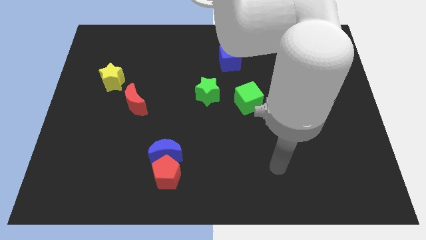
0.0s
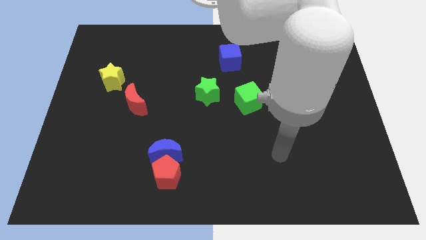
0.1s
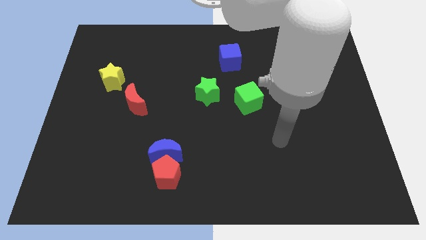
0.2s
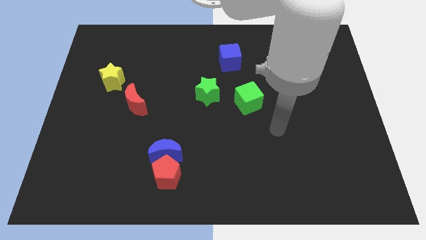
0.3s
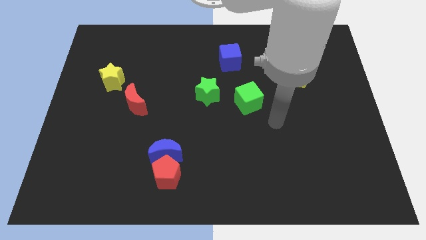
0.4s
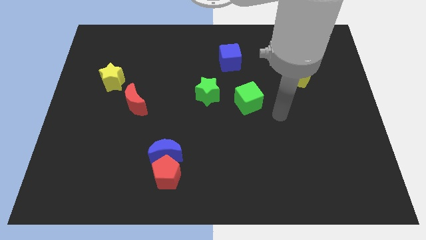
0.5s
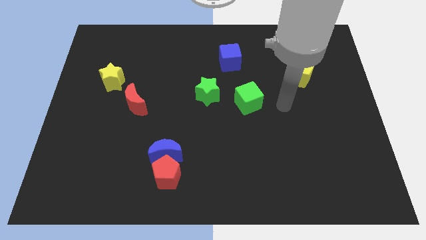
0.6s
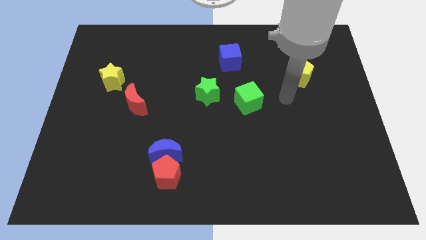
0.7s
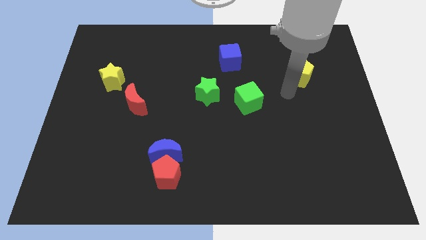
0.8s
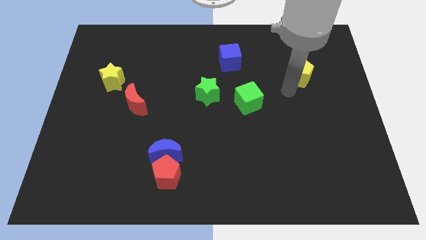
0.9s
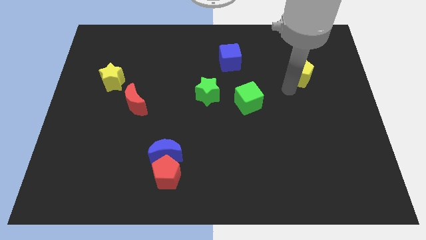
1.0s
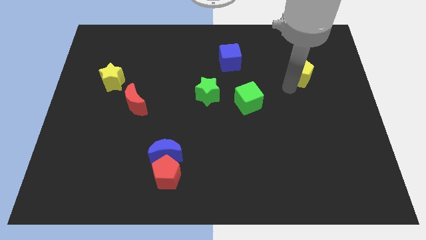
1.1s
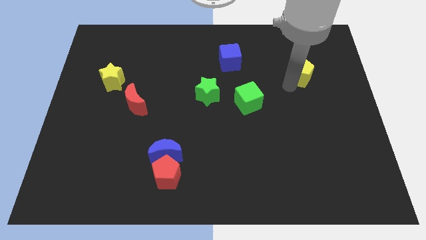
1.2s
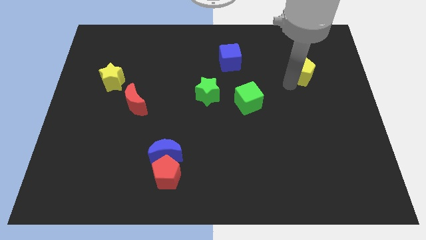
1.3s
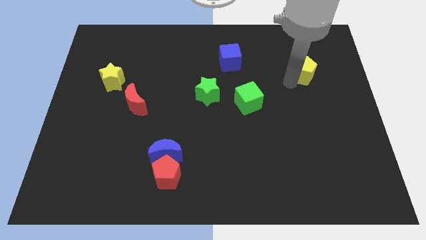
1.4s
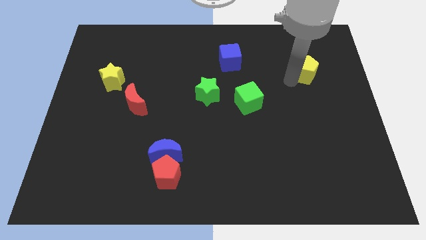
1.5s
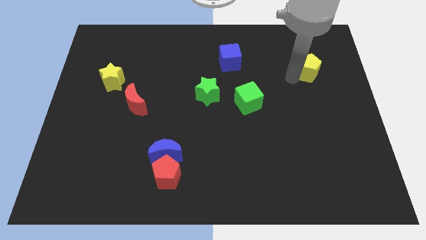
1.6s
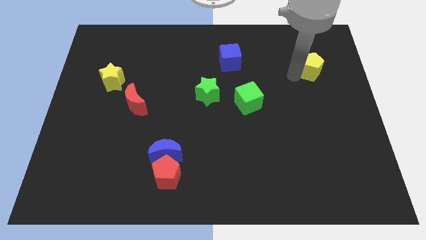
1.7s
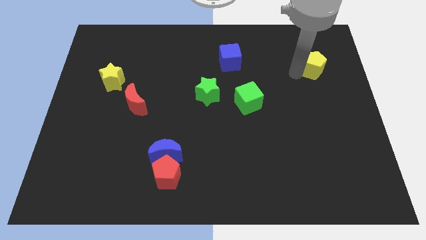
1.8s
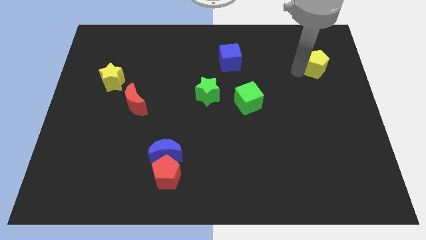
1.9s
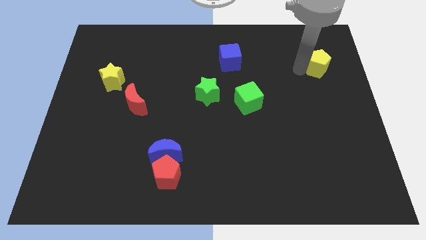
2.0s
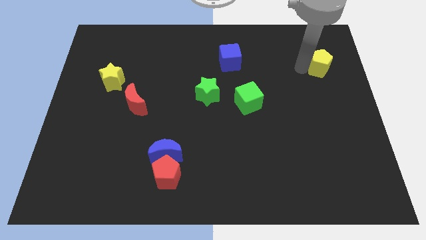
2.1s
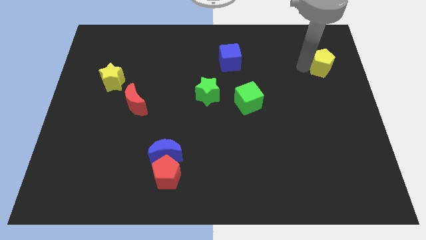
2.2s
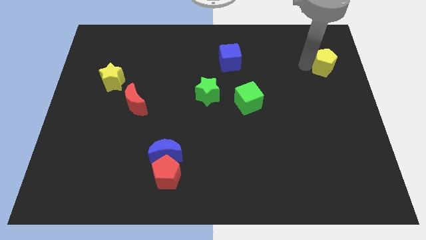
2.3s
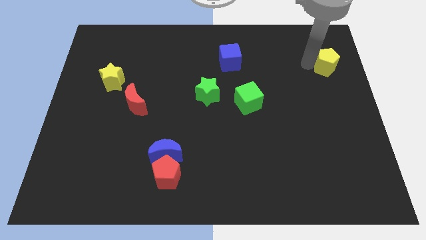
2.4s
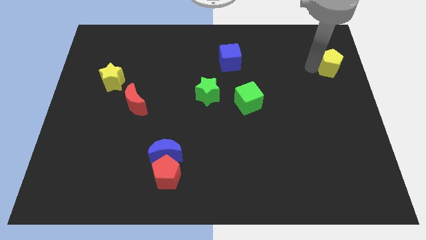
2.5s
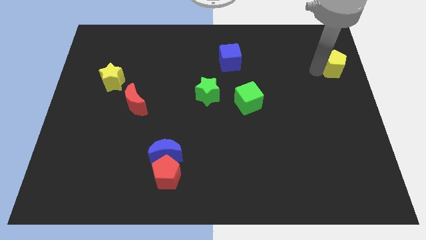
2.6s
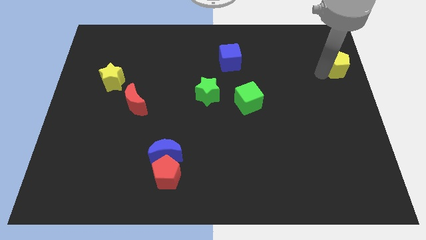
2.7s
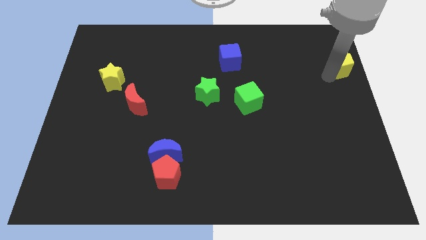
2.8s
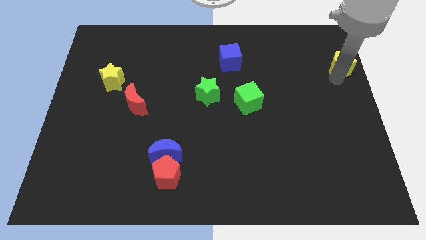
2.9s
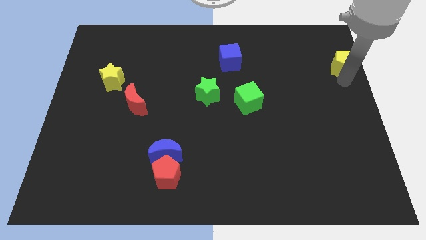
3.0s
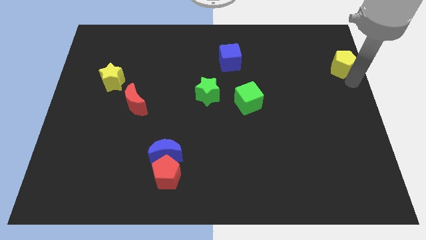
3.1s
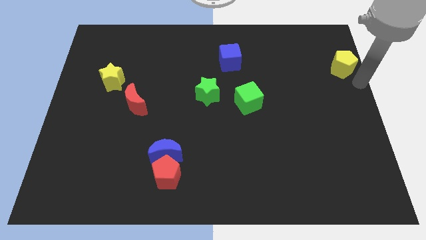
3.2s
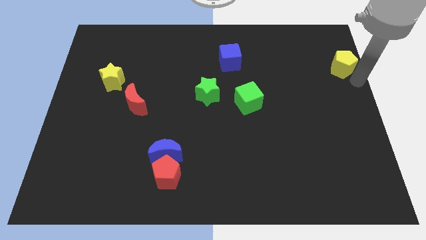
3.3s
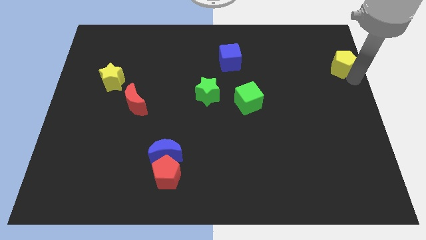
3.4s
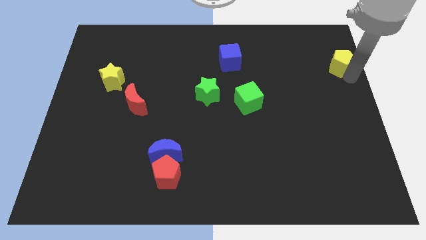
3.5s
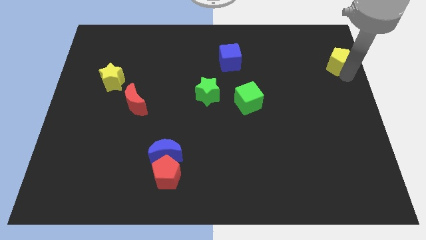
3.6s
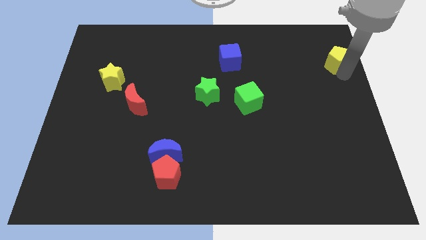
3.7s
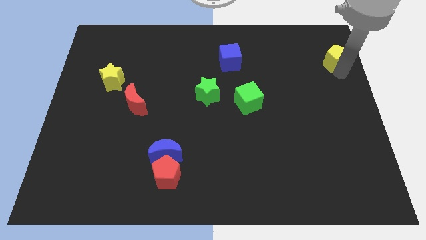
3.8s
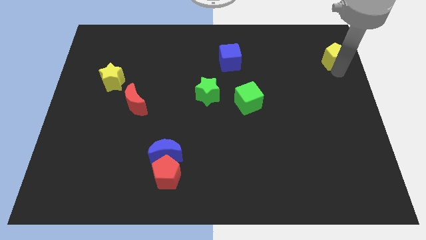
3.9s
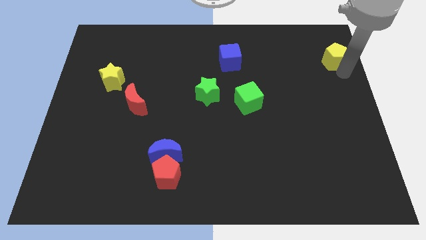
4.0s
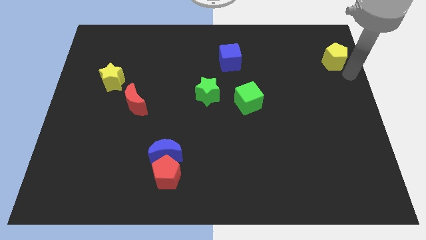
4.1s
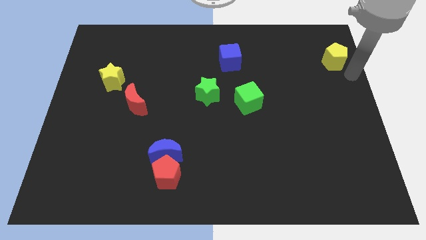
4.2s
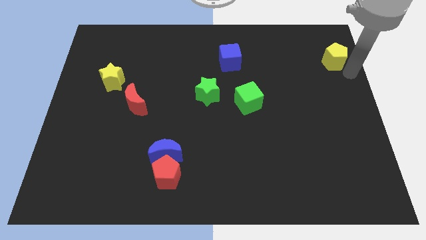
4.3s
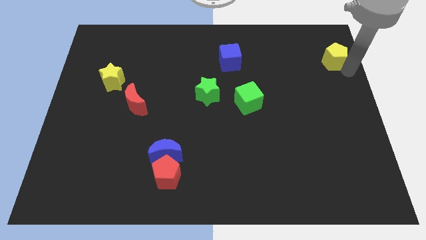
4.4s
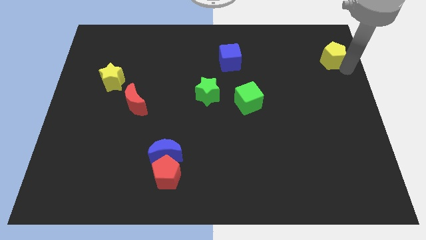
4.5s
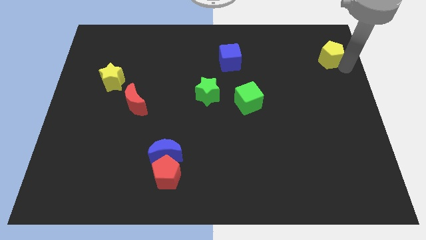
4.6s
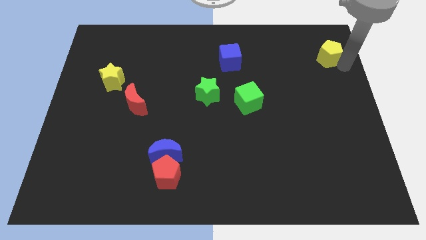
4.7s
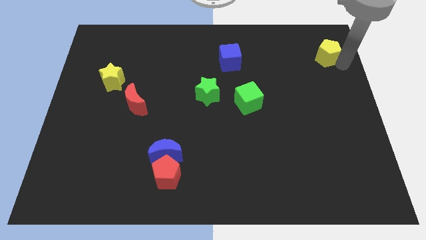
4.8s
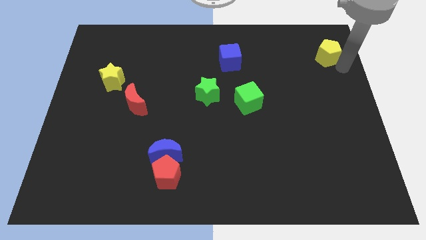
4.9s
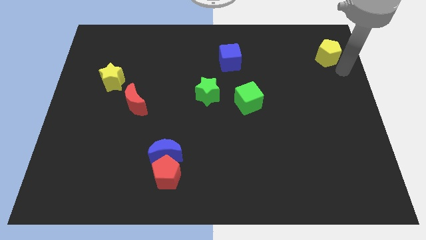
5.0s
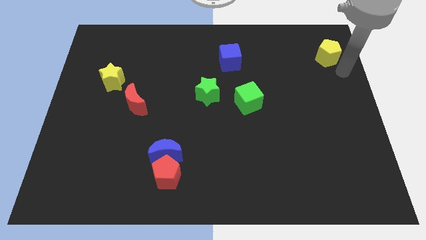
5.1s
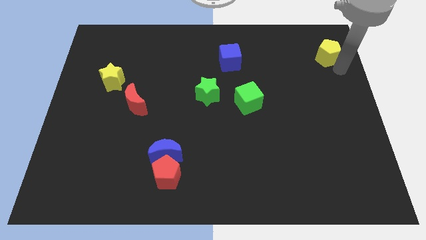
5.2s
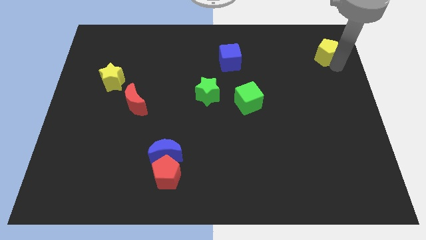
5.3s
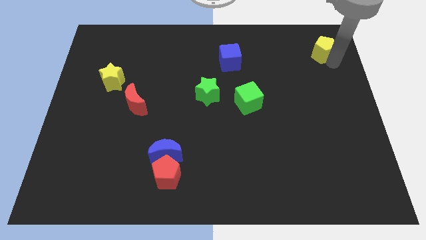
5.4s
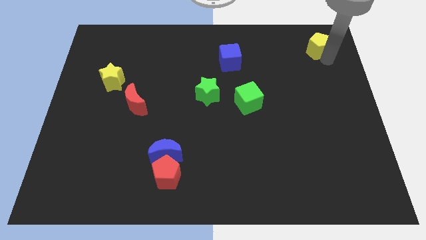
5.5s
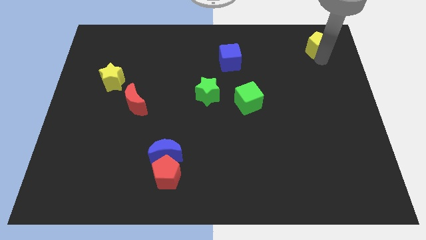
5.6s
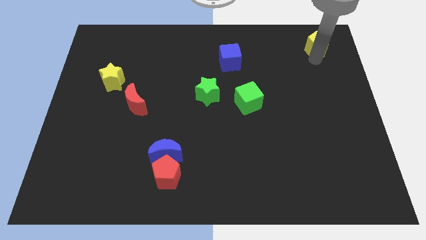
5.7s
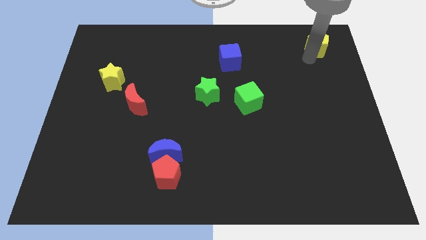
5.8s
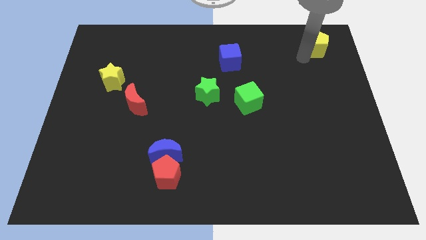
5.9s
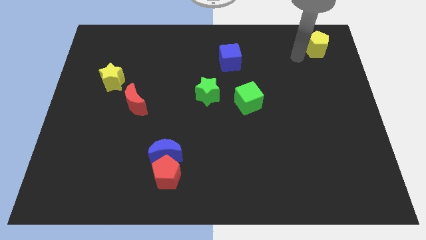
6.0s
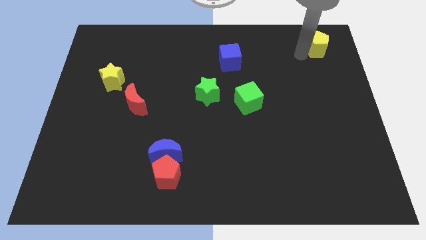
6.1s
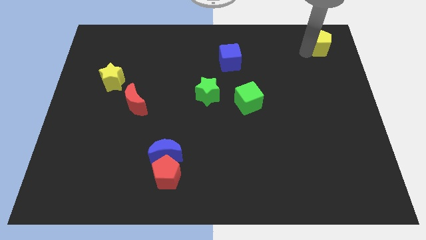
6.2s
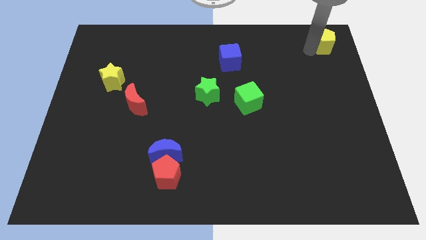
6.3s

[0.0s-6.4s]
push the yellow pentagon to the top right corner
